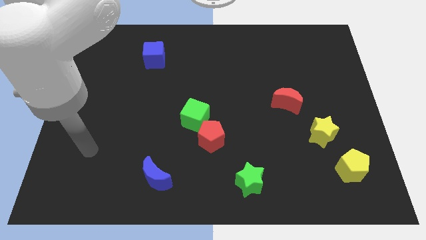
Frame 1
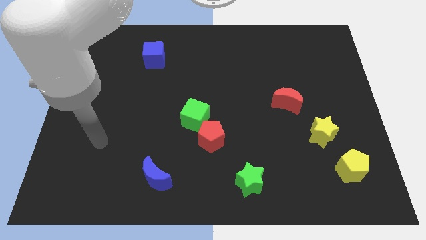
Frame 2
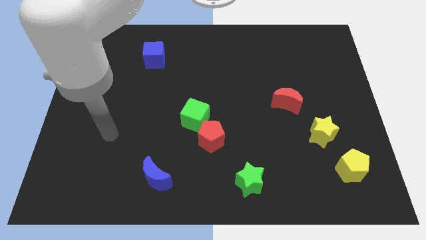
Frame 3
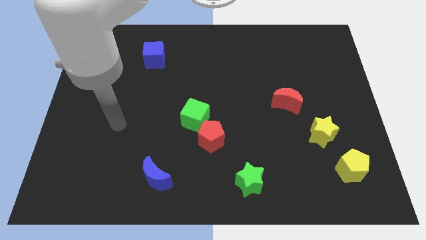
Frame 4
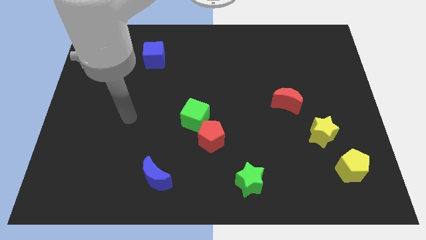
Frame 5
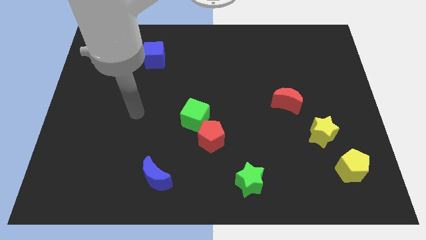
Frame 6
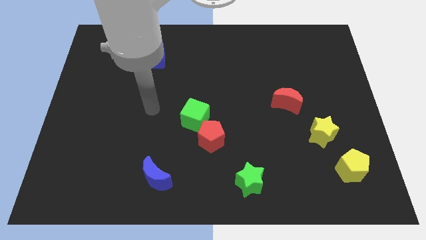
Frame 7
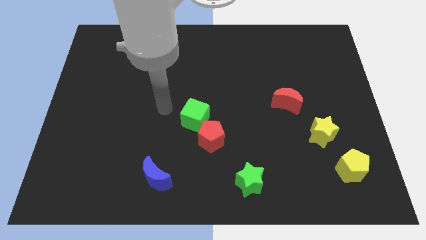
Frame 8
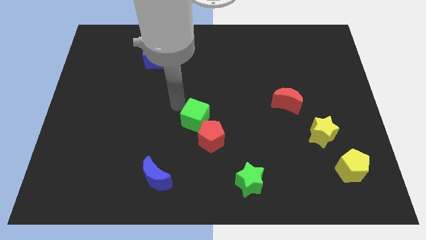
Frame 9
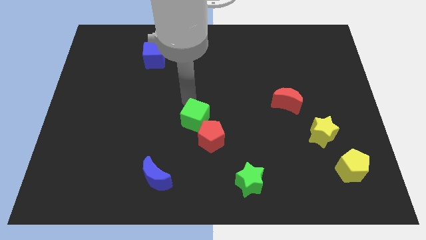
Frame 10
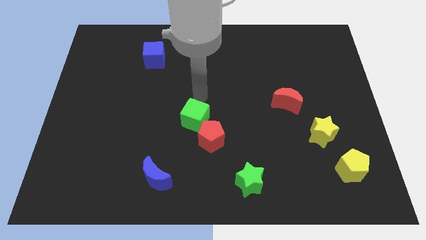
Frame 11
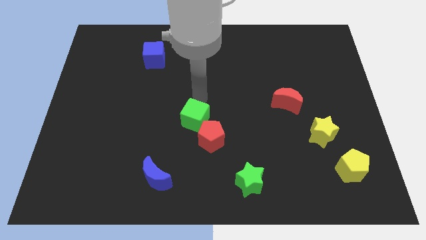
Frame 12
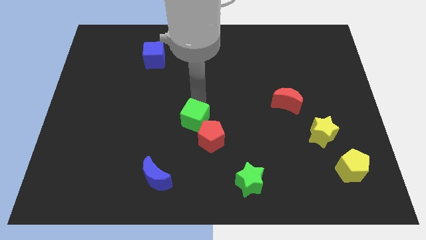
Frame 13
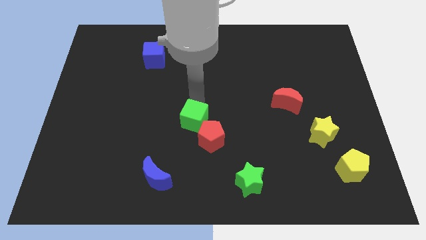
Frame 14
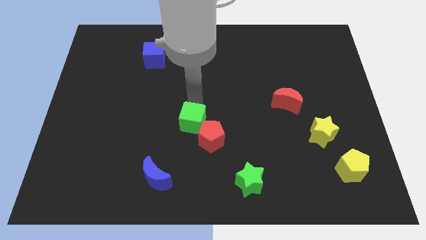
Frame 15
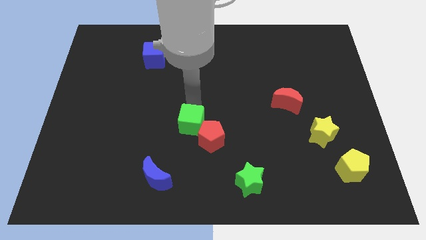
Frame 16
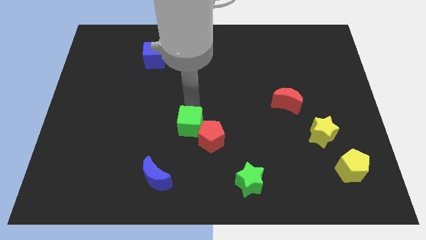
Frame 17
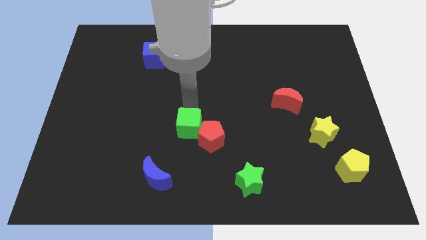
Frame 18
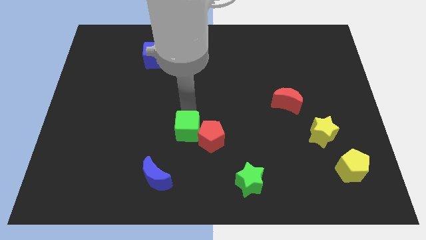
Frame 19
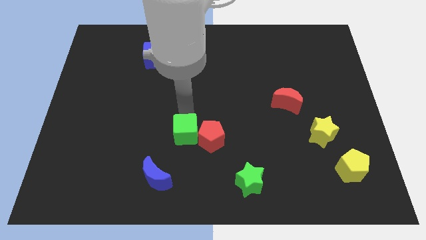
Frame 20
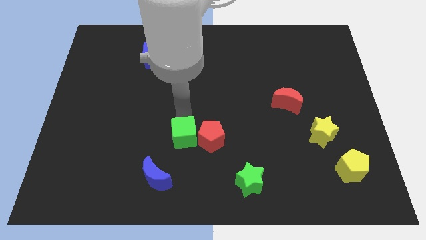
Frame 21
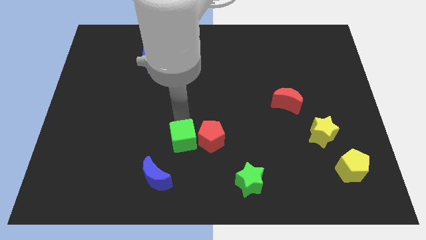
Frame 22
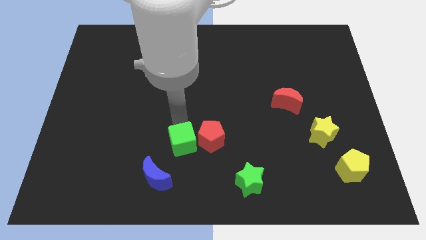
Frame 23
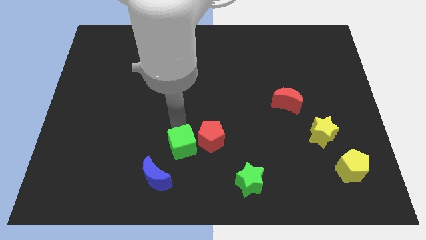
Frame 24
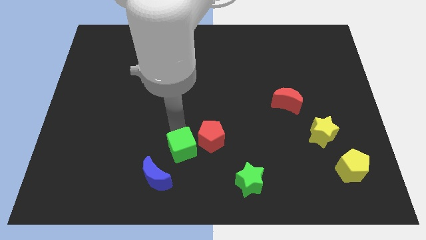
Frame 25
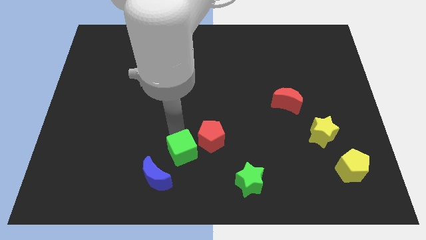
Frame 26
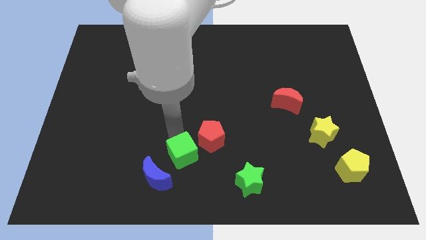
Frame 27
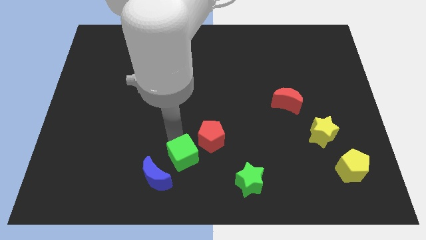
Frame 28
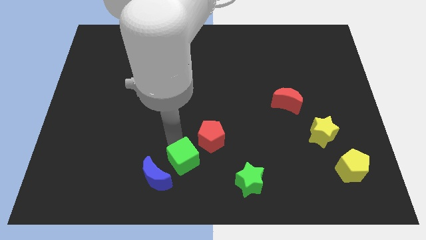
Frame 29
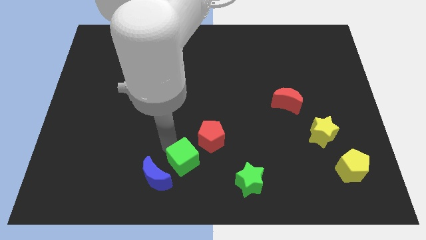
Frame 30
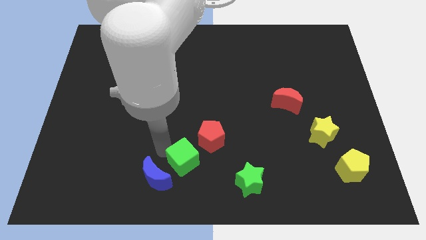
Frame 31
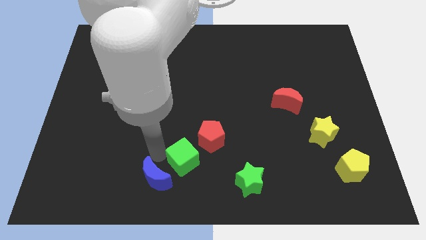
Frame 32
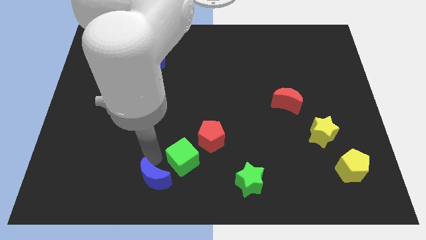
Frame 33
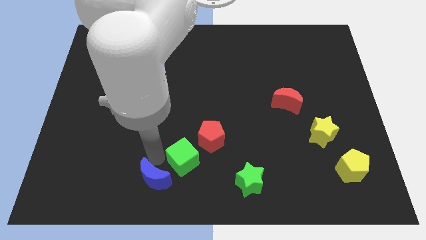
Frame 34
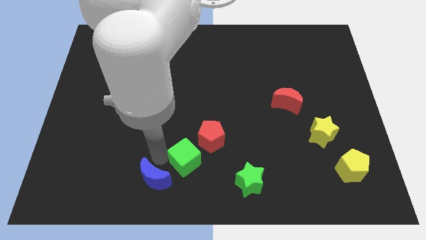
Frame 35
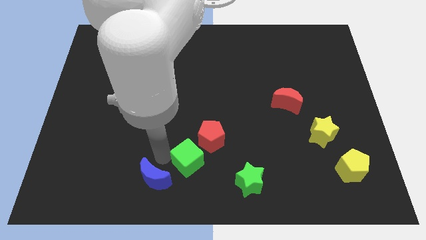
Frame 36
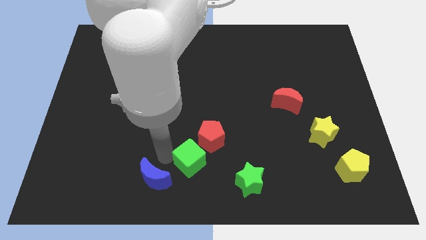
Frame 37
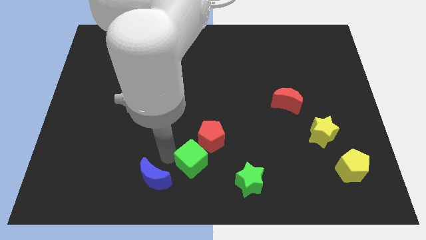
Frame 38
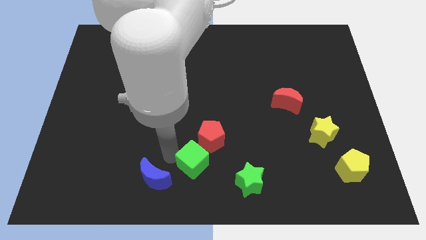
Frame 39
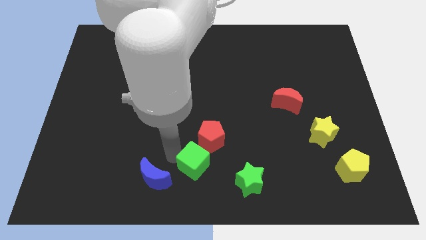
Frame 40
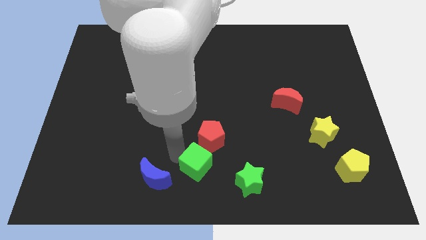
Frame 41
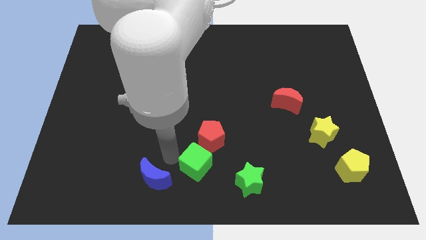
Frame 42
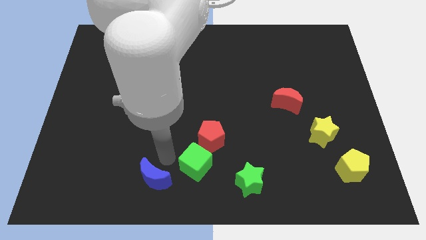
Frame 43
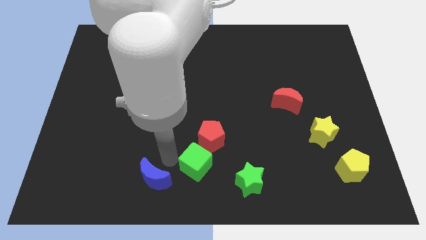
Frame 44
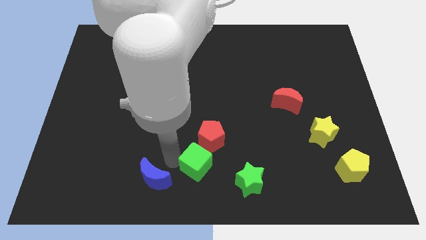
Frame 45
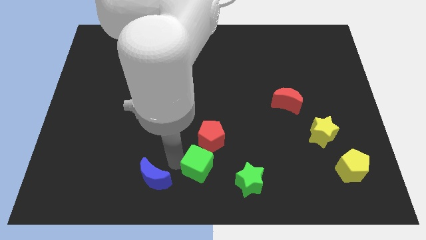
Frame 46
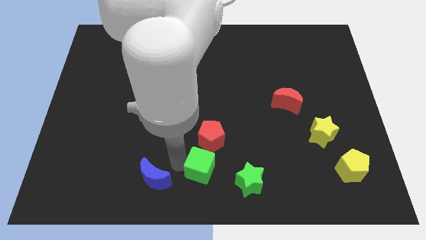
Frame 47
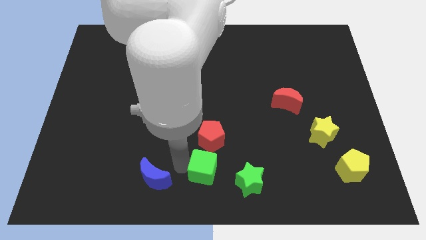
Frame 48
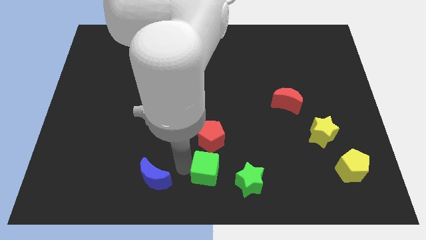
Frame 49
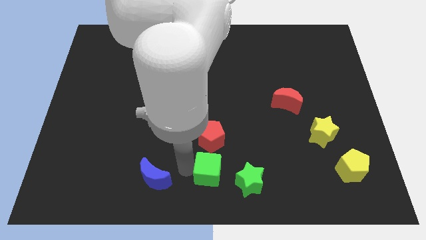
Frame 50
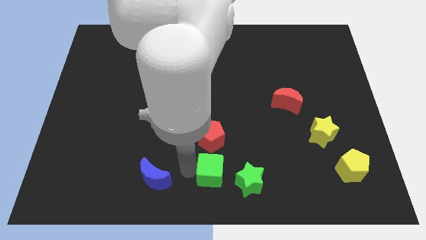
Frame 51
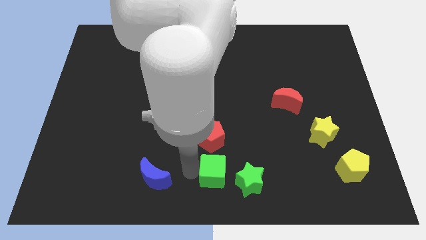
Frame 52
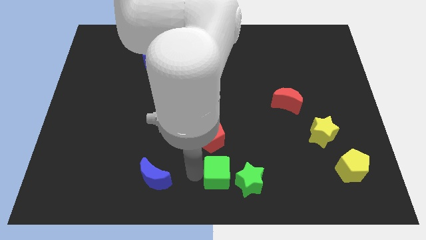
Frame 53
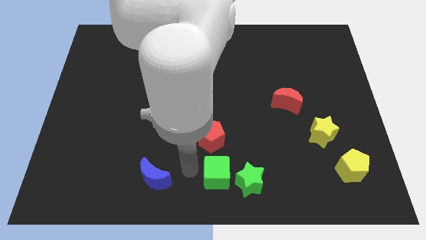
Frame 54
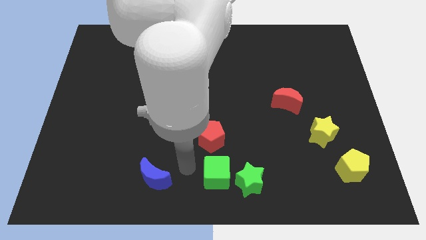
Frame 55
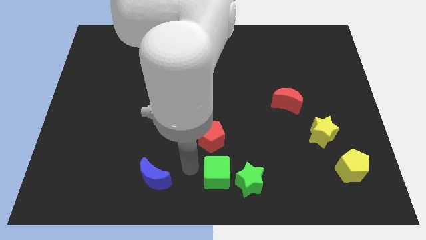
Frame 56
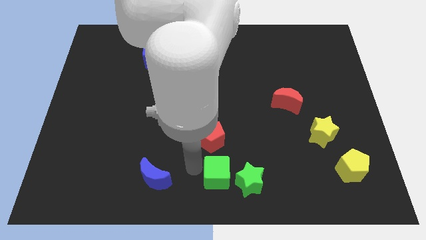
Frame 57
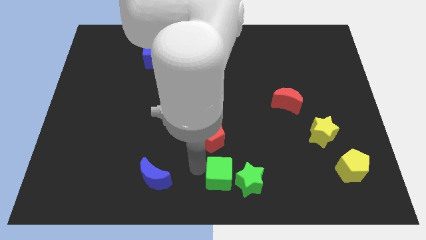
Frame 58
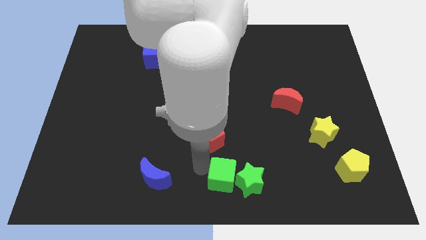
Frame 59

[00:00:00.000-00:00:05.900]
slide the green cube next to the green star

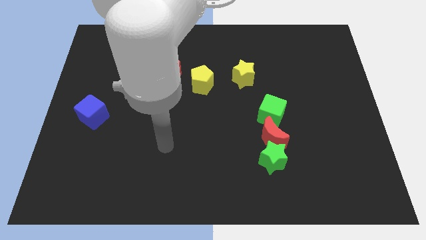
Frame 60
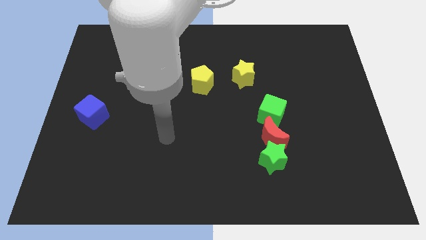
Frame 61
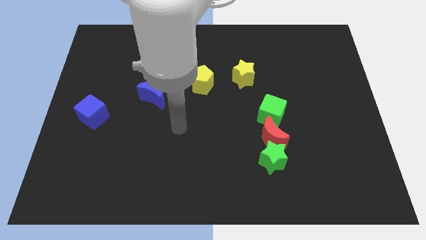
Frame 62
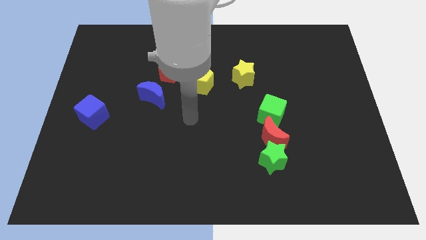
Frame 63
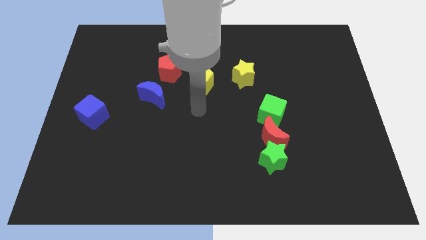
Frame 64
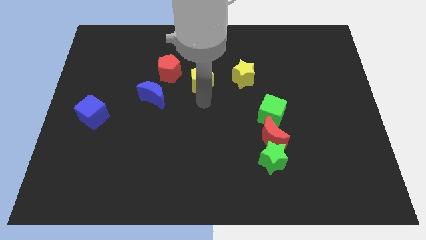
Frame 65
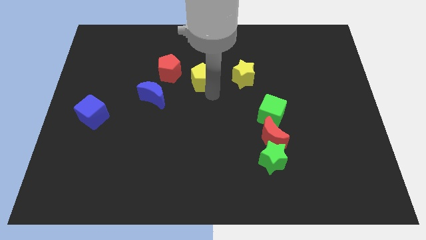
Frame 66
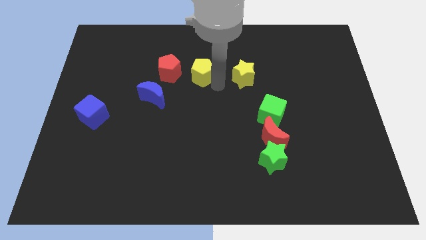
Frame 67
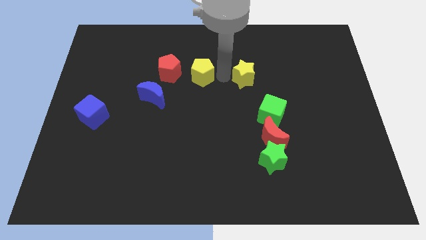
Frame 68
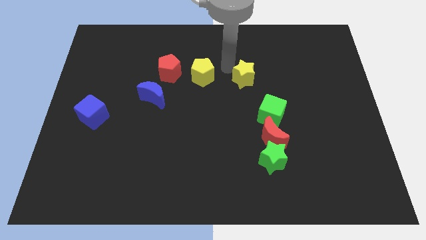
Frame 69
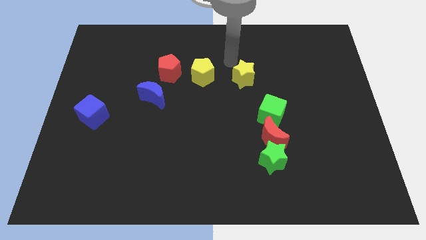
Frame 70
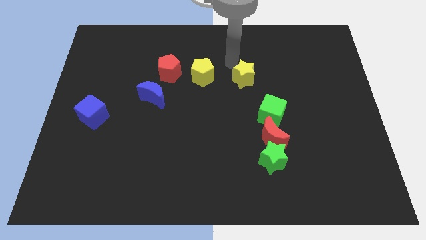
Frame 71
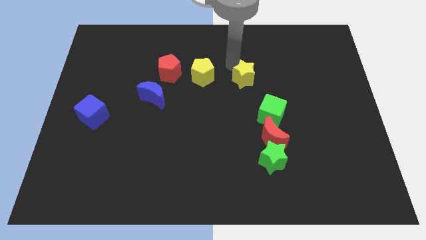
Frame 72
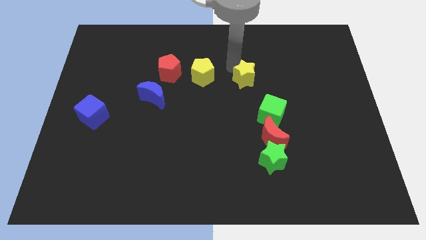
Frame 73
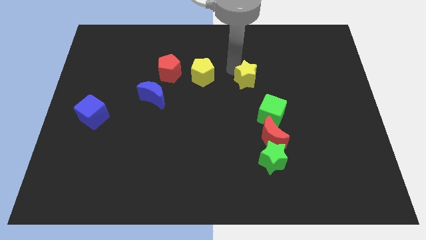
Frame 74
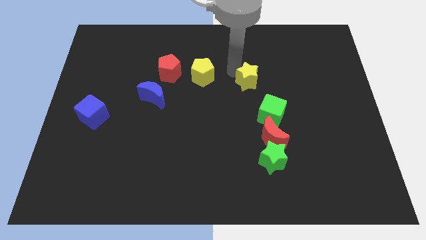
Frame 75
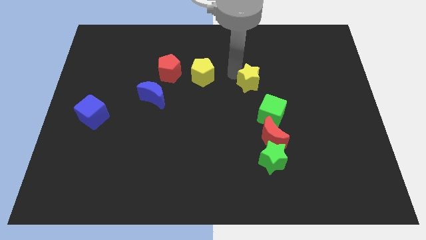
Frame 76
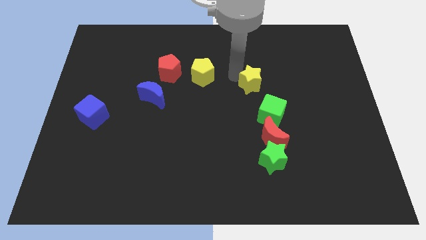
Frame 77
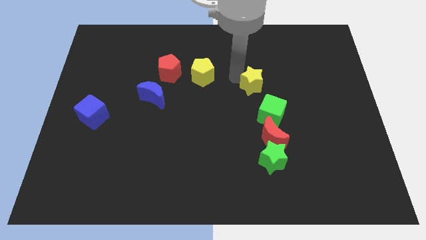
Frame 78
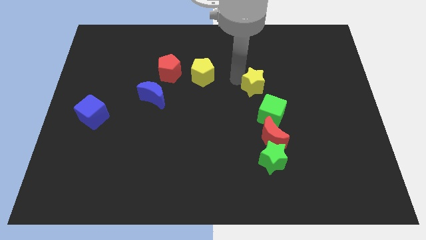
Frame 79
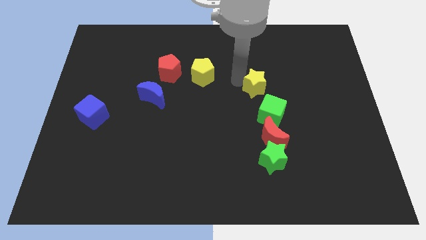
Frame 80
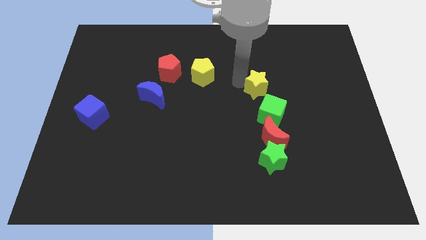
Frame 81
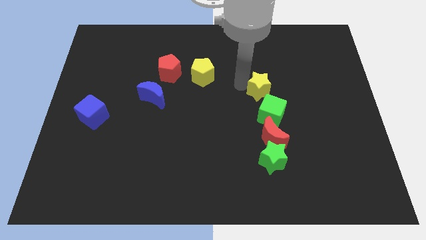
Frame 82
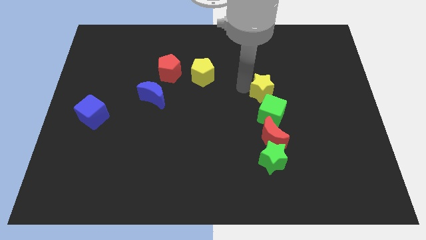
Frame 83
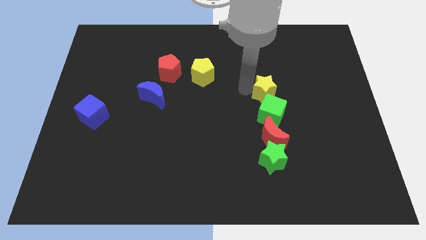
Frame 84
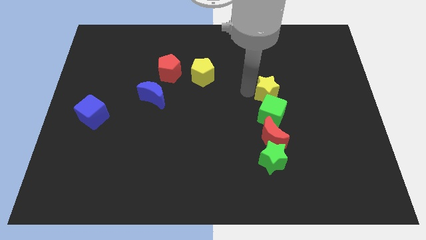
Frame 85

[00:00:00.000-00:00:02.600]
put the yellow star towards the green cube
